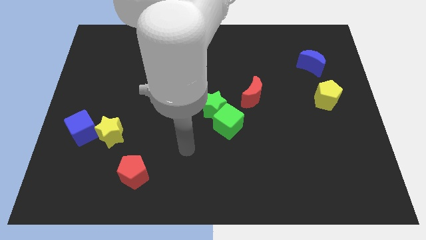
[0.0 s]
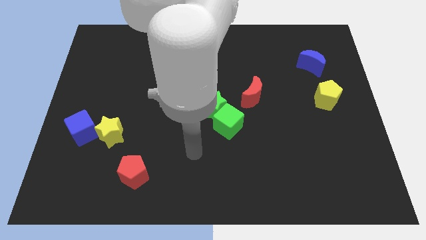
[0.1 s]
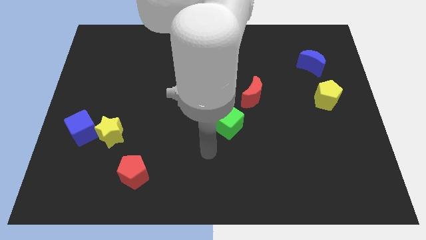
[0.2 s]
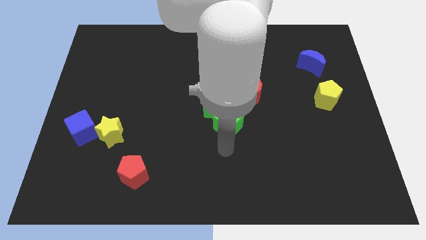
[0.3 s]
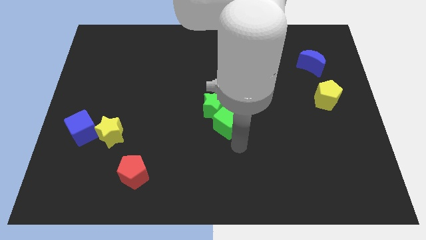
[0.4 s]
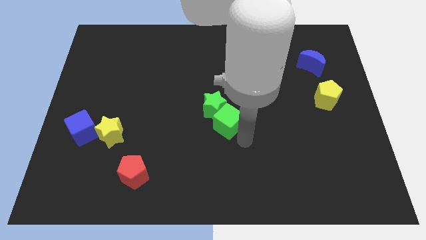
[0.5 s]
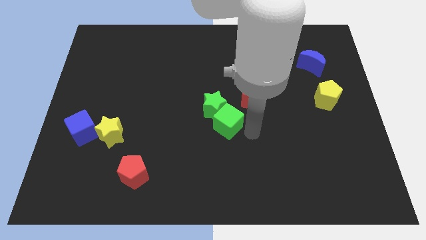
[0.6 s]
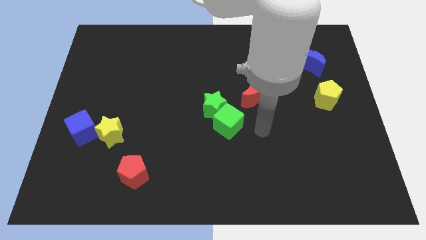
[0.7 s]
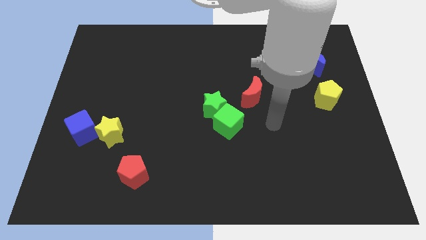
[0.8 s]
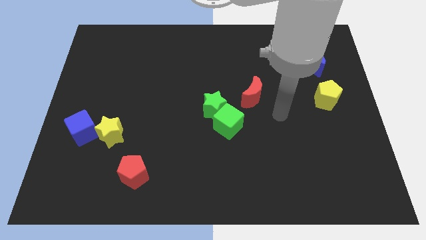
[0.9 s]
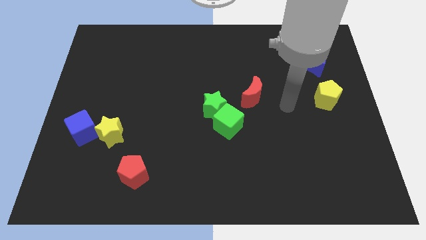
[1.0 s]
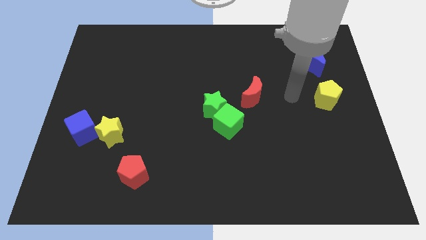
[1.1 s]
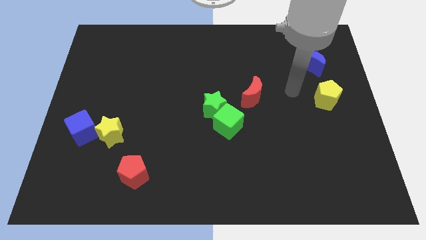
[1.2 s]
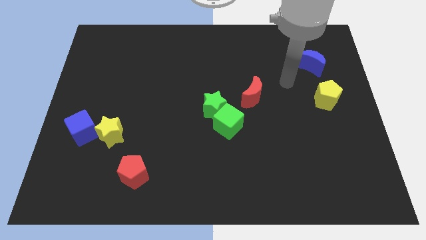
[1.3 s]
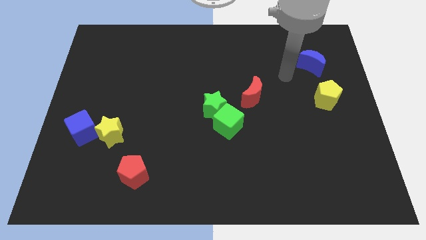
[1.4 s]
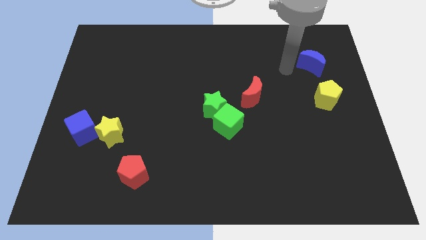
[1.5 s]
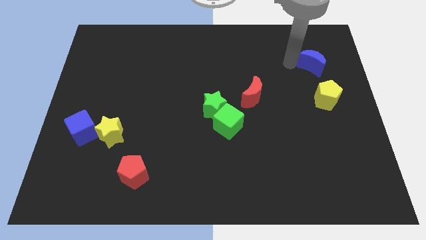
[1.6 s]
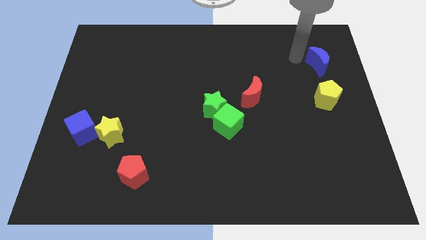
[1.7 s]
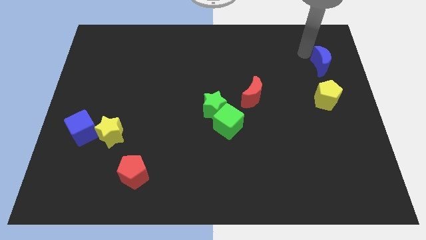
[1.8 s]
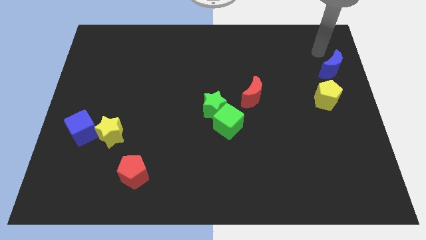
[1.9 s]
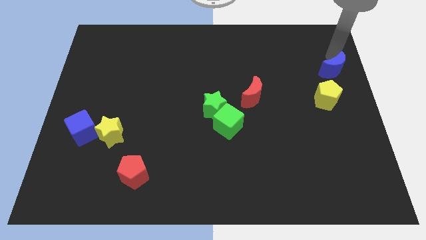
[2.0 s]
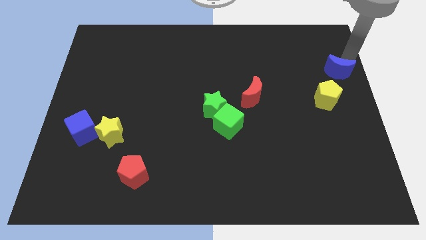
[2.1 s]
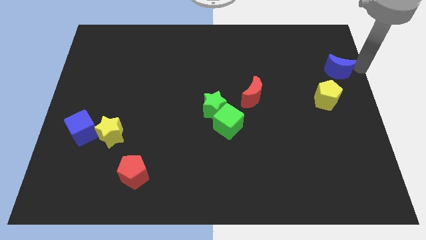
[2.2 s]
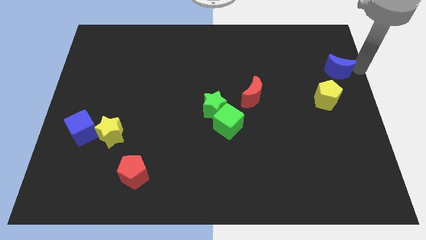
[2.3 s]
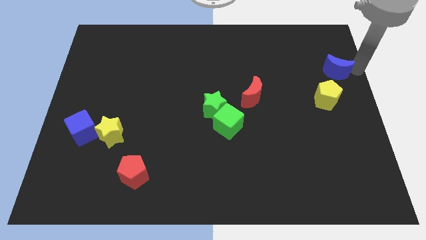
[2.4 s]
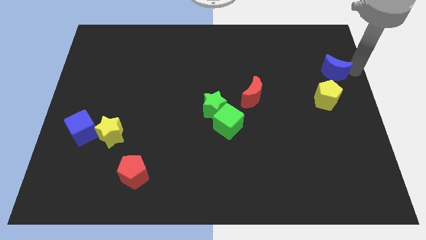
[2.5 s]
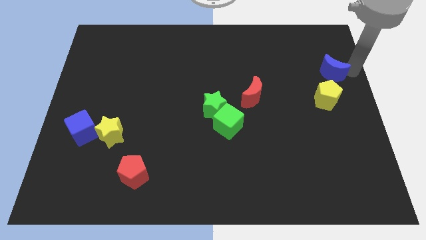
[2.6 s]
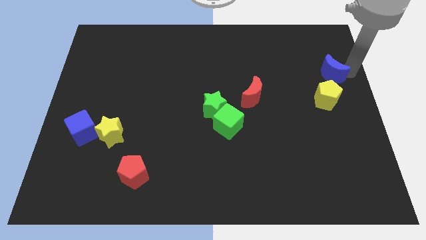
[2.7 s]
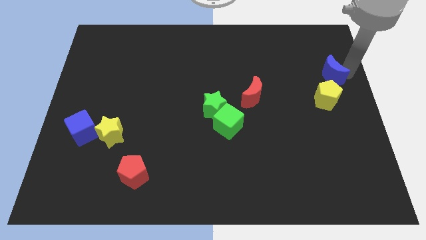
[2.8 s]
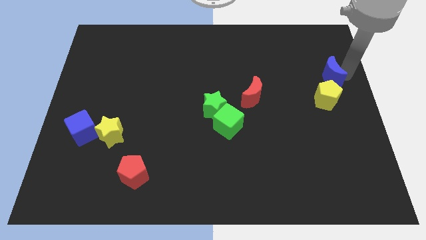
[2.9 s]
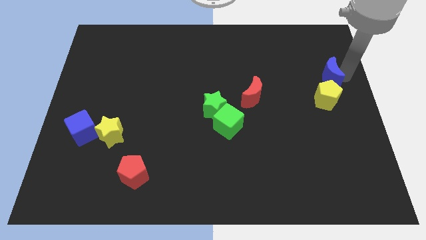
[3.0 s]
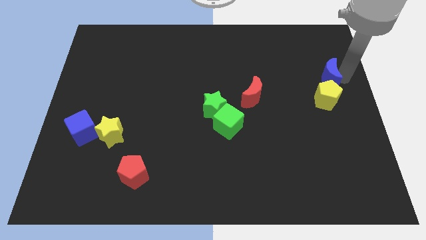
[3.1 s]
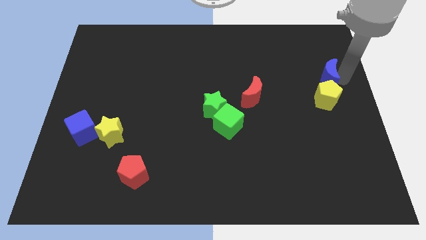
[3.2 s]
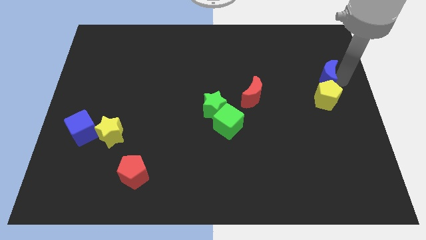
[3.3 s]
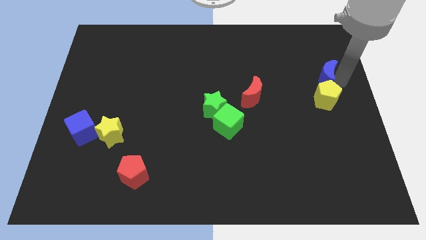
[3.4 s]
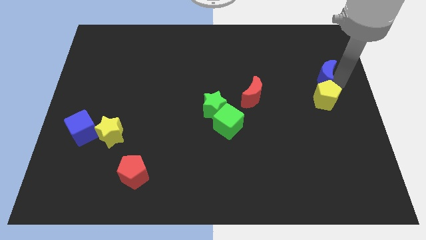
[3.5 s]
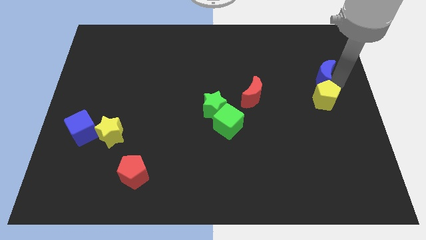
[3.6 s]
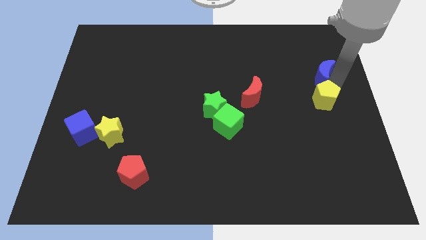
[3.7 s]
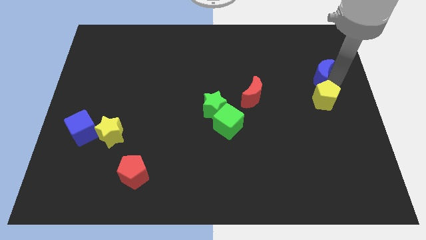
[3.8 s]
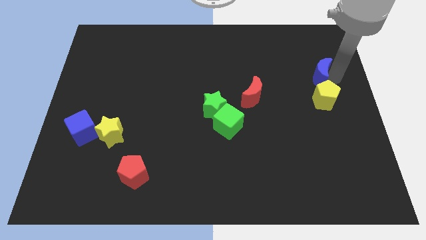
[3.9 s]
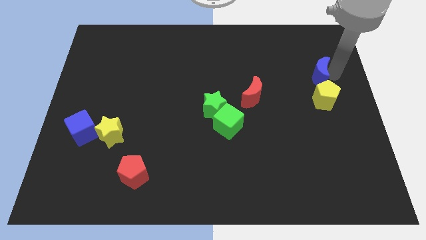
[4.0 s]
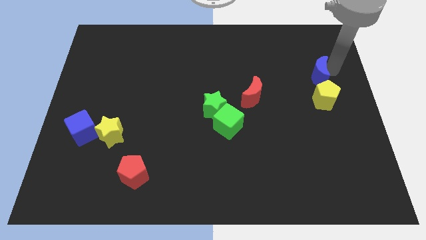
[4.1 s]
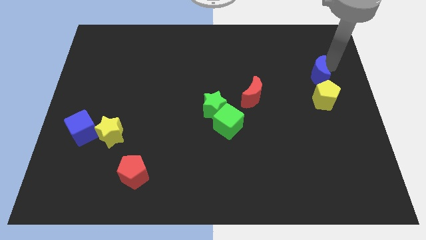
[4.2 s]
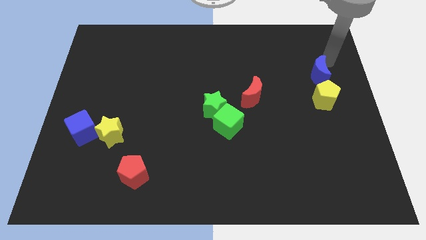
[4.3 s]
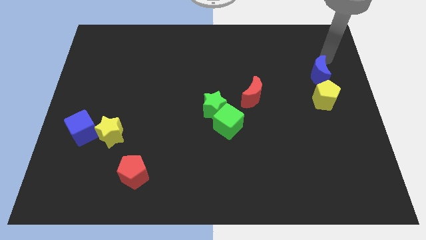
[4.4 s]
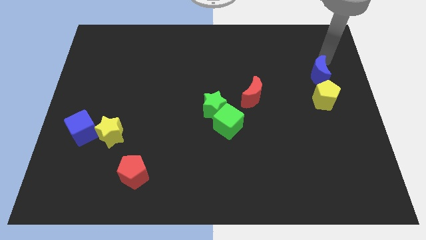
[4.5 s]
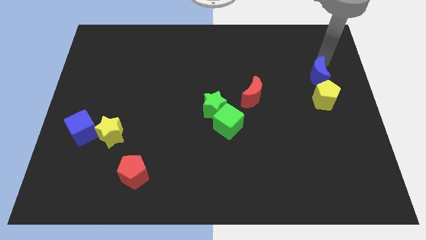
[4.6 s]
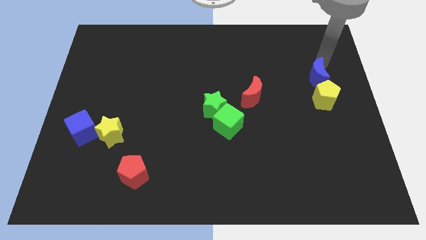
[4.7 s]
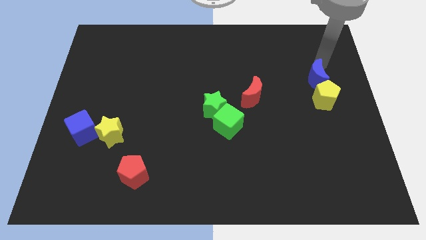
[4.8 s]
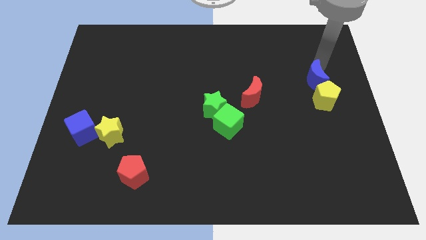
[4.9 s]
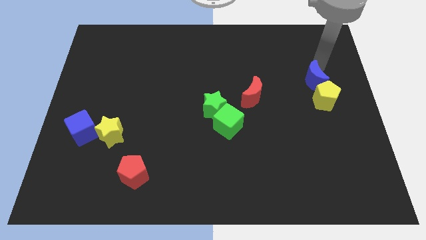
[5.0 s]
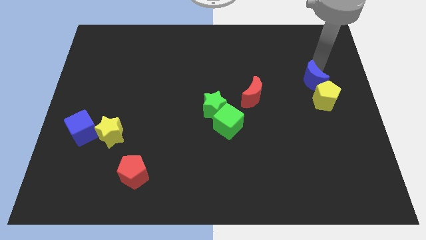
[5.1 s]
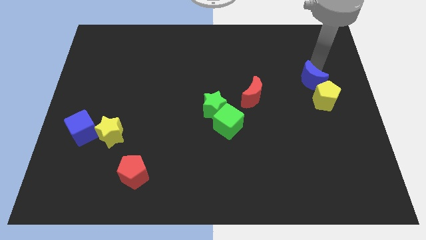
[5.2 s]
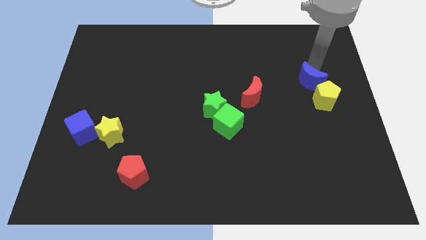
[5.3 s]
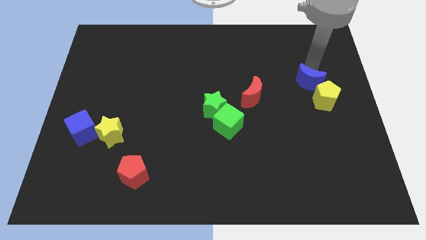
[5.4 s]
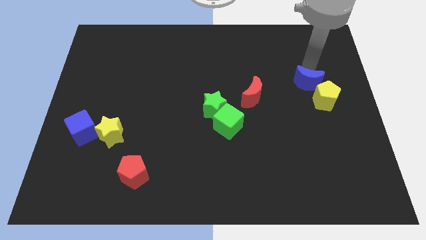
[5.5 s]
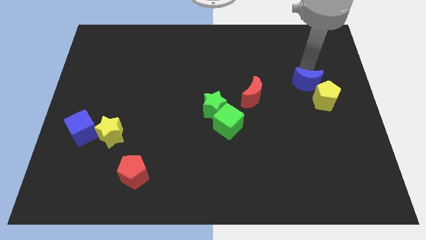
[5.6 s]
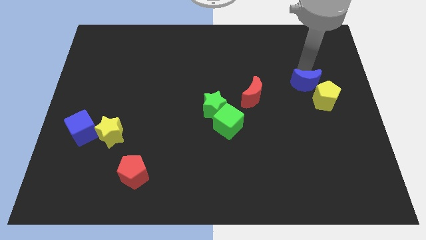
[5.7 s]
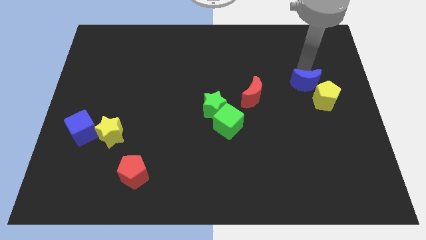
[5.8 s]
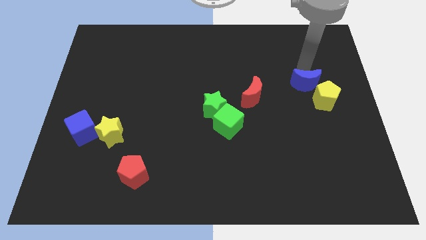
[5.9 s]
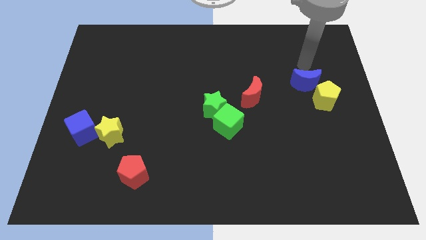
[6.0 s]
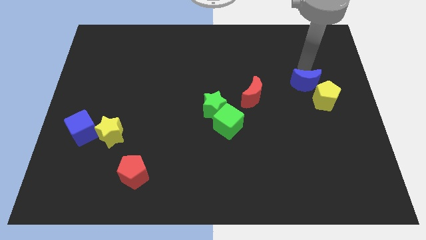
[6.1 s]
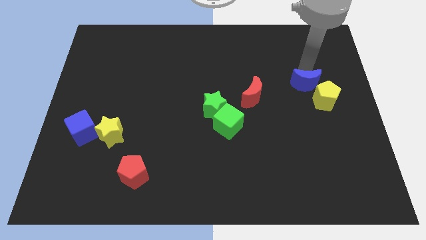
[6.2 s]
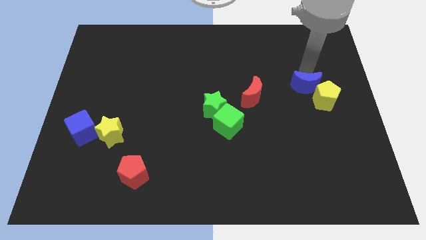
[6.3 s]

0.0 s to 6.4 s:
slide the blue moon downwards a little bit

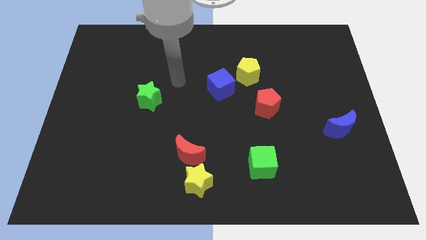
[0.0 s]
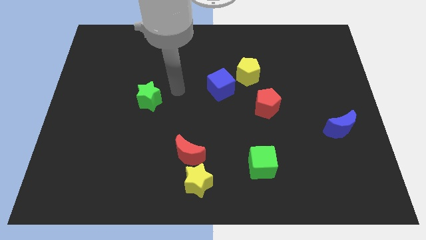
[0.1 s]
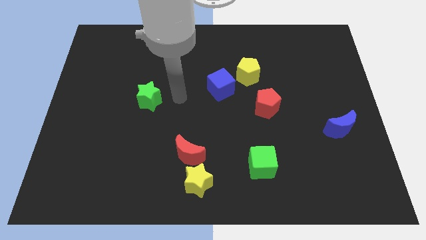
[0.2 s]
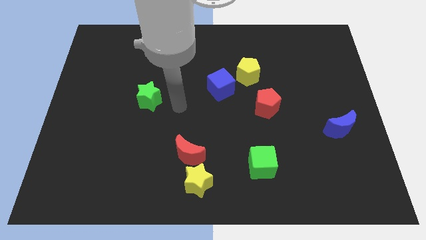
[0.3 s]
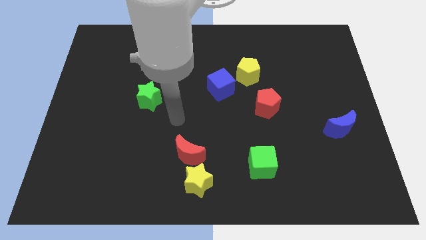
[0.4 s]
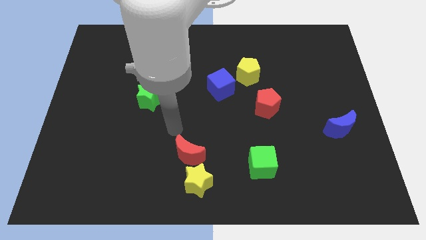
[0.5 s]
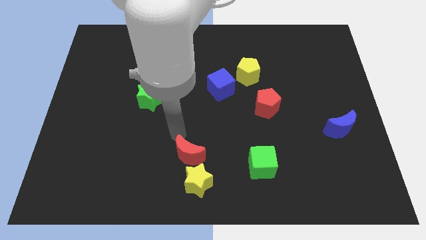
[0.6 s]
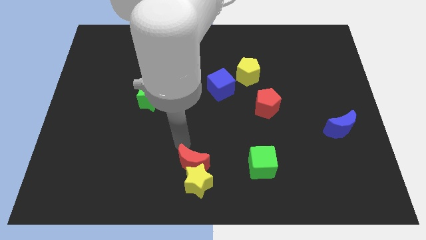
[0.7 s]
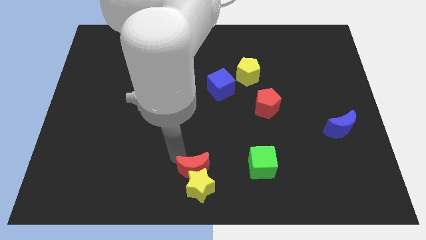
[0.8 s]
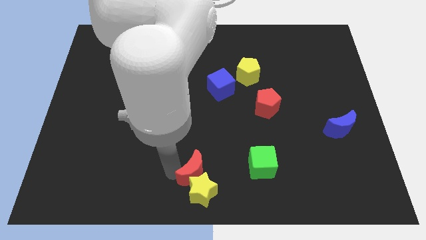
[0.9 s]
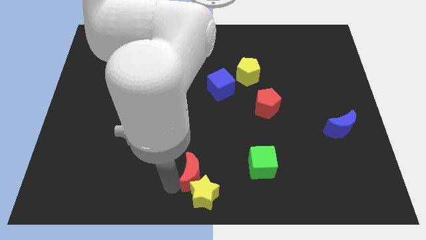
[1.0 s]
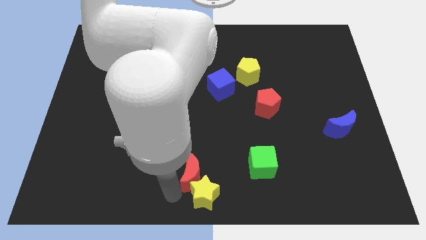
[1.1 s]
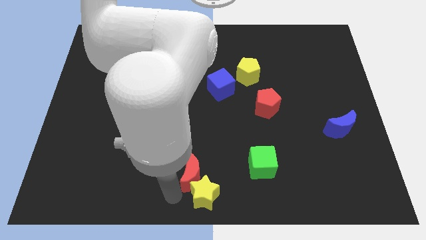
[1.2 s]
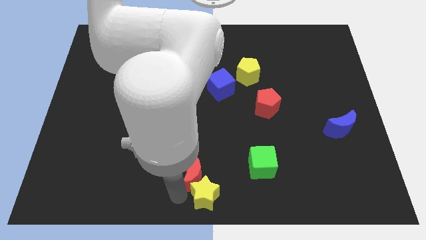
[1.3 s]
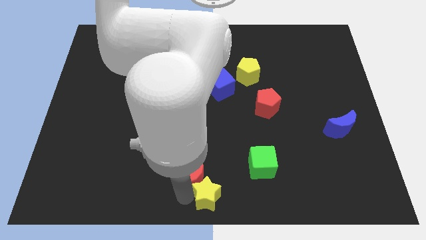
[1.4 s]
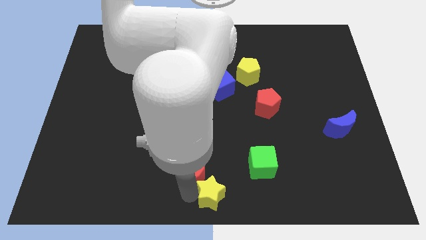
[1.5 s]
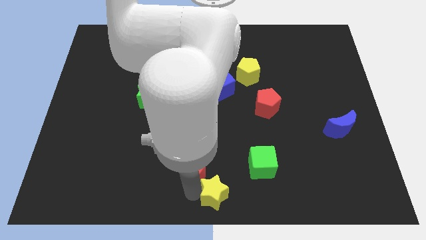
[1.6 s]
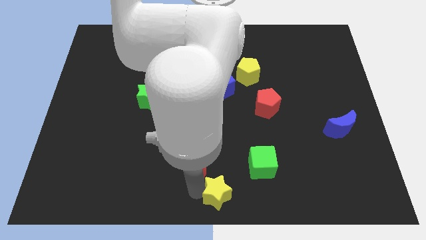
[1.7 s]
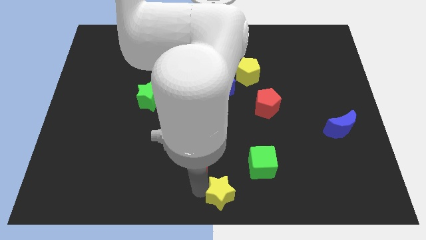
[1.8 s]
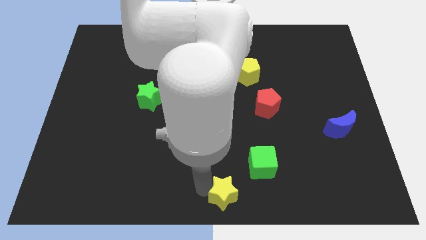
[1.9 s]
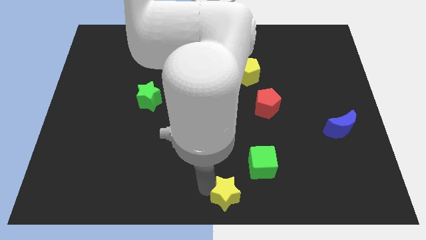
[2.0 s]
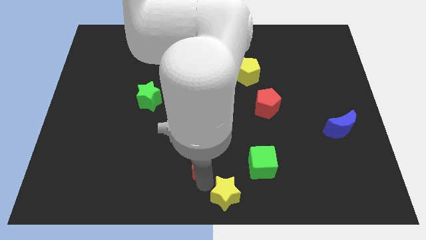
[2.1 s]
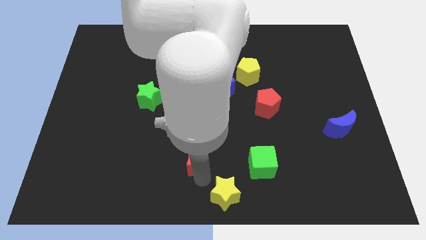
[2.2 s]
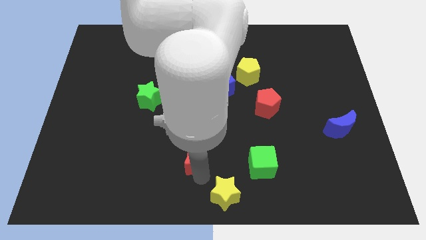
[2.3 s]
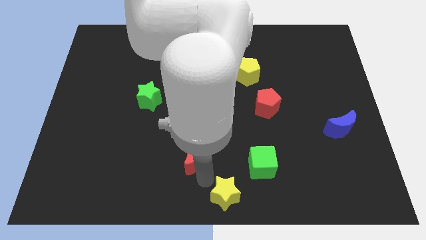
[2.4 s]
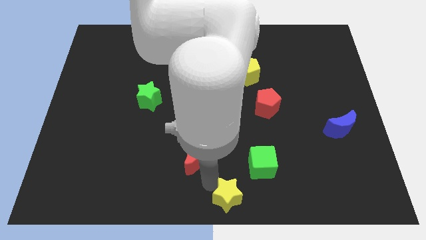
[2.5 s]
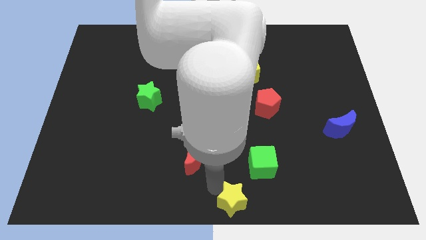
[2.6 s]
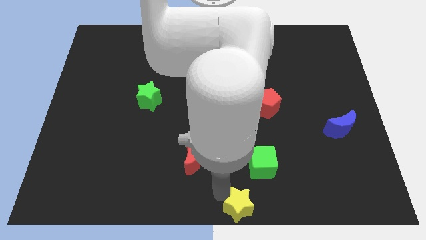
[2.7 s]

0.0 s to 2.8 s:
push the yellow star to the right a little bit
